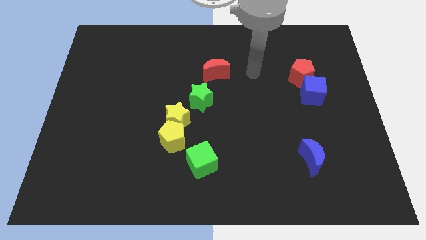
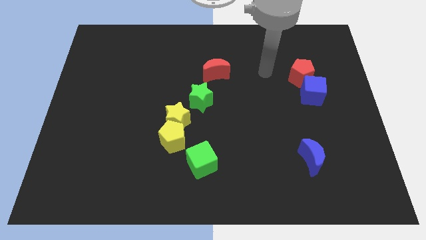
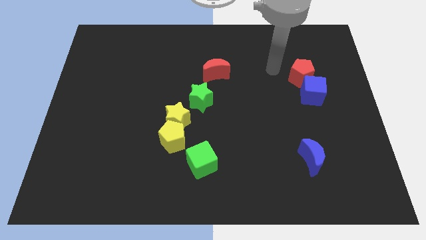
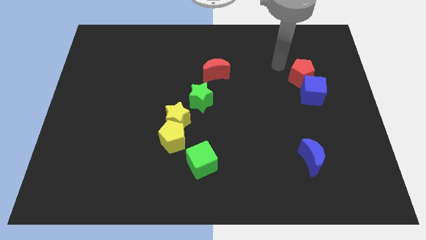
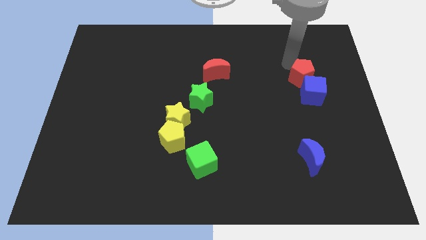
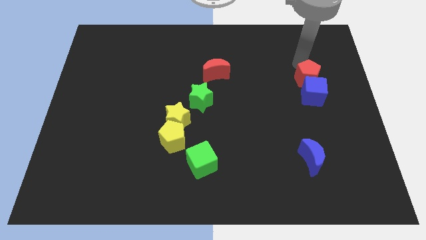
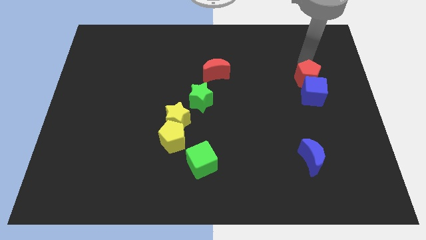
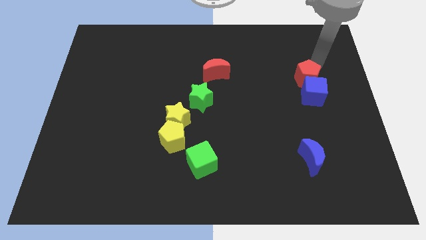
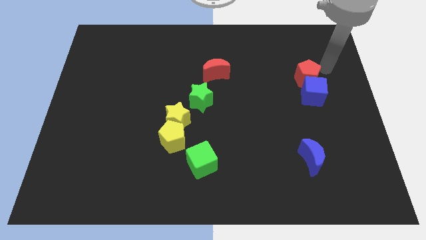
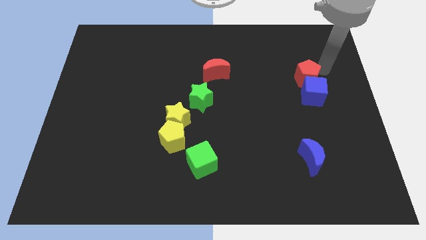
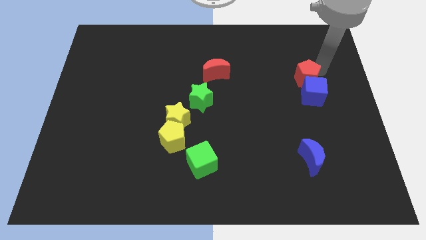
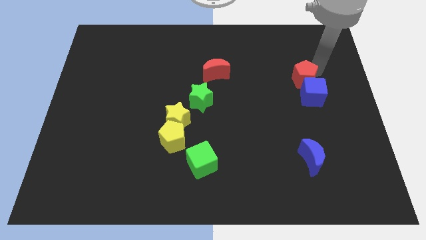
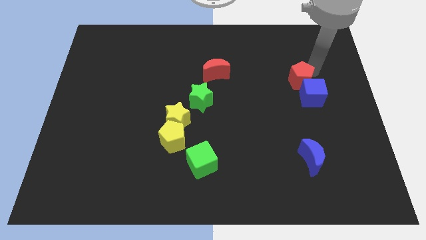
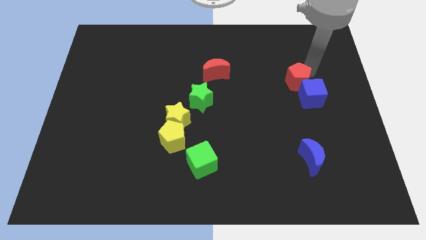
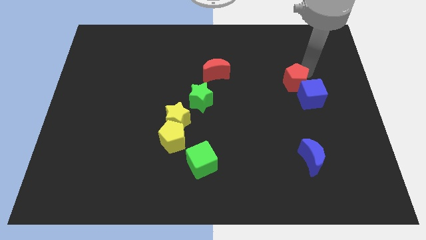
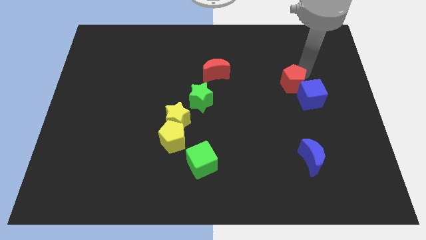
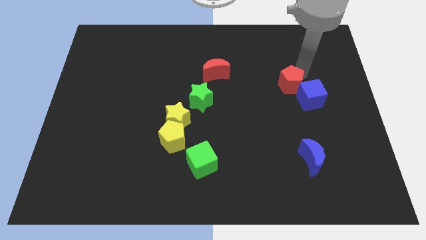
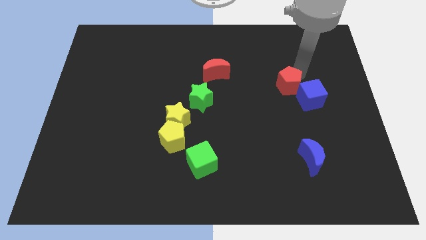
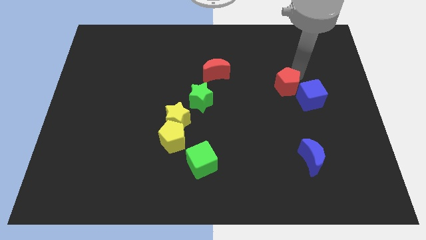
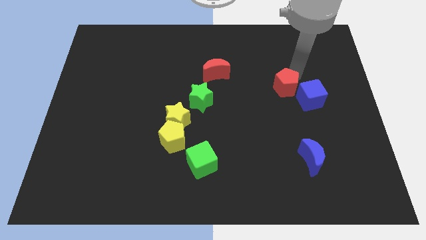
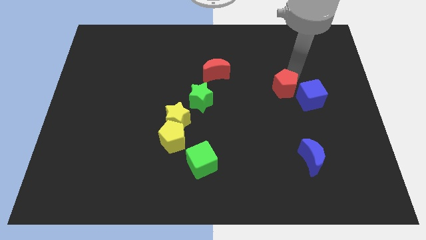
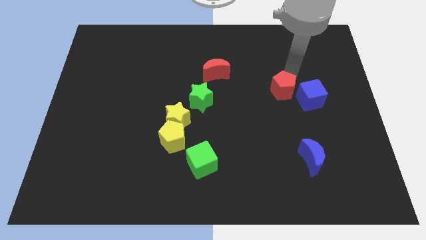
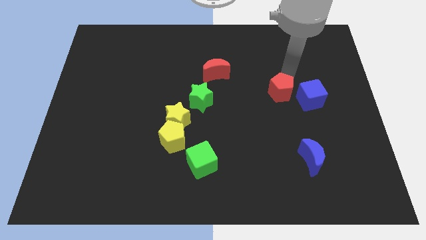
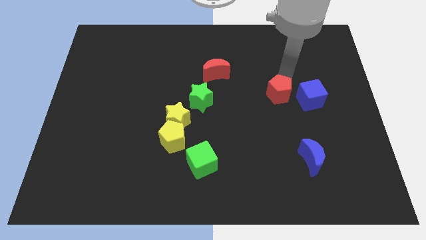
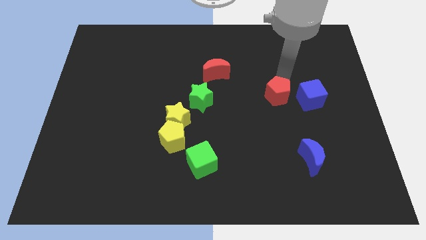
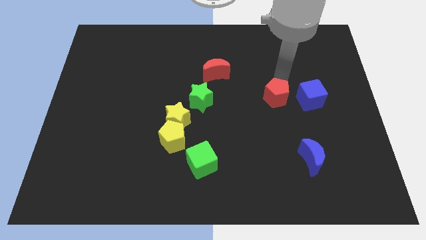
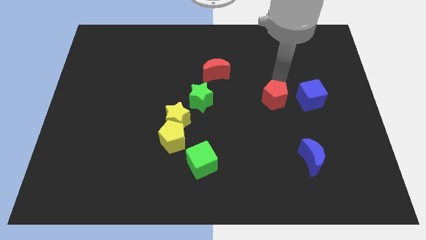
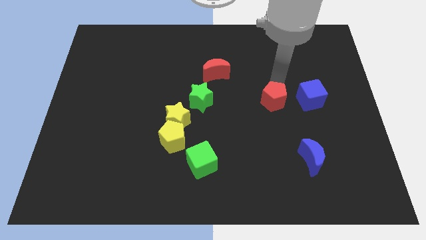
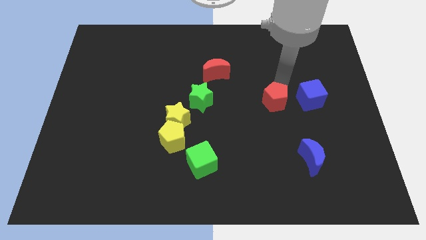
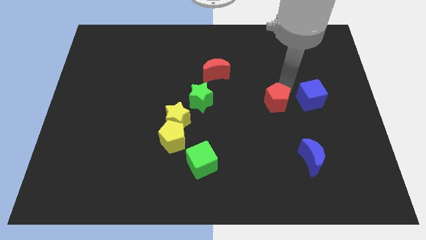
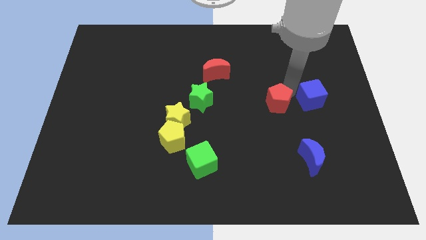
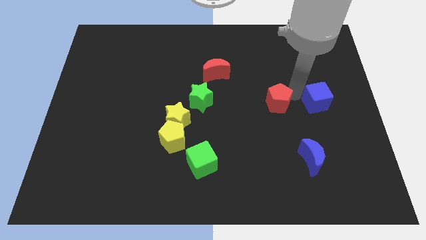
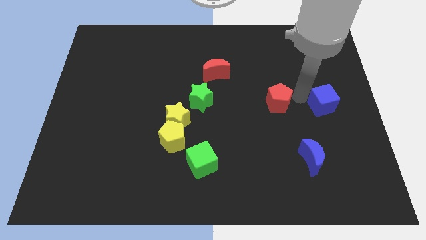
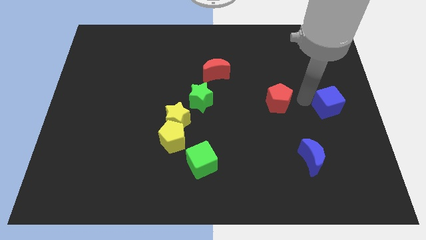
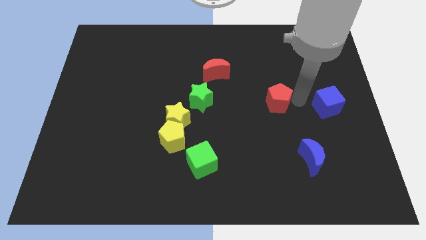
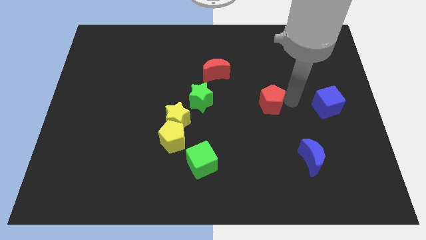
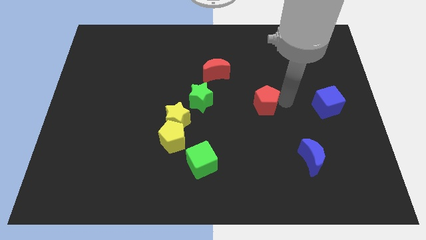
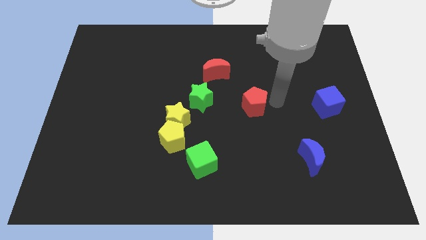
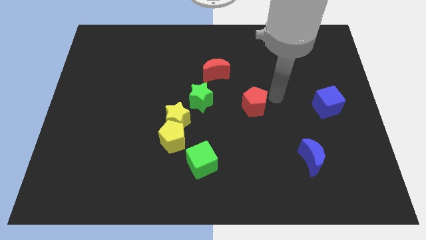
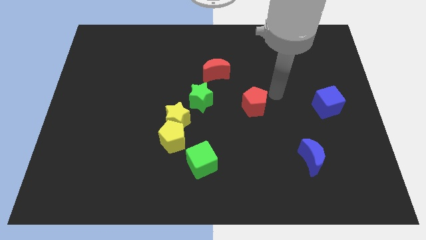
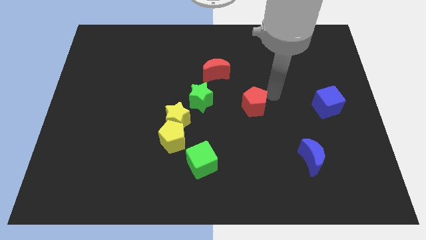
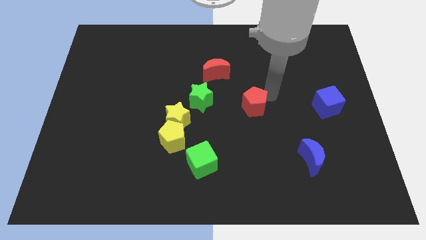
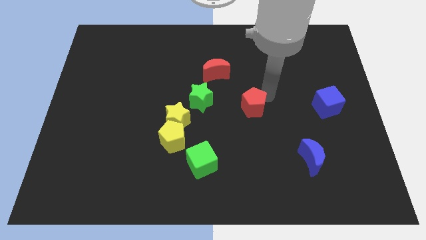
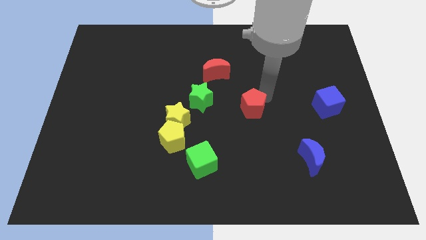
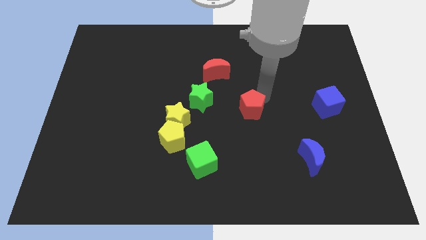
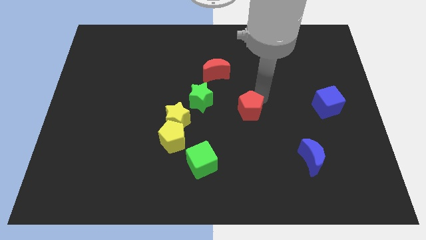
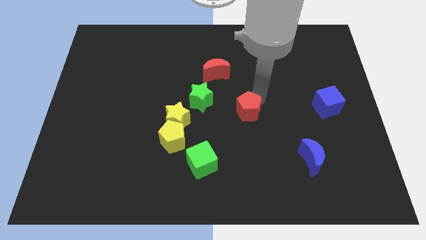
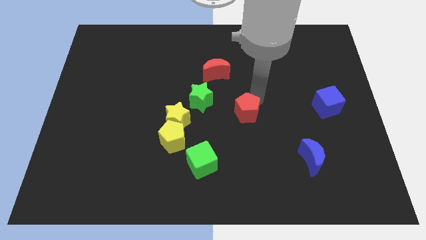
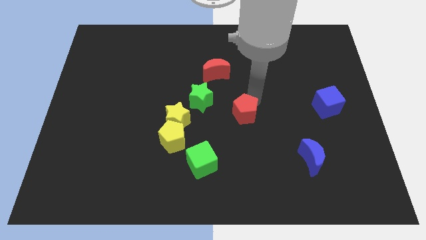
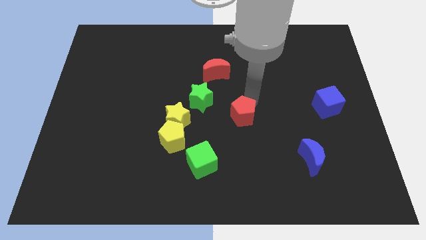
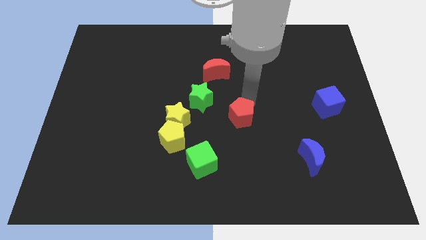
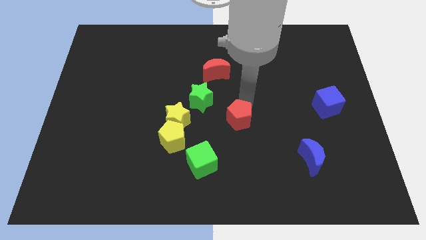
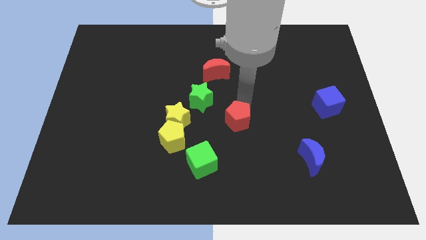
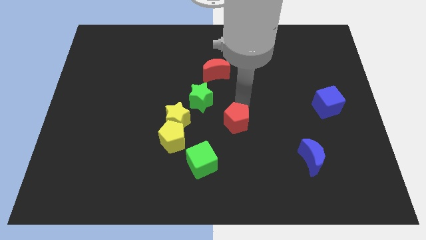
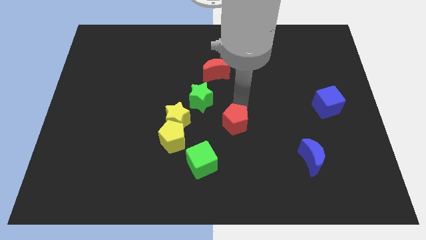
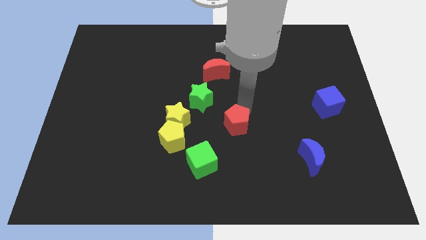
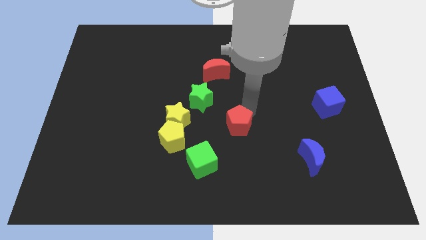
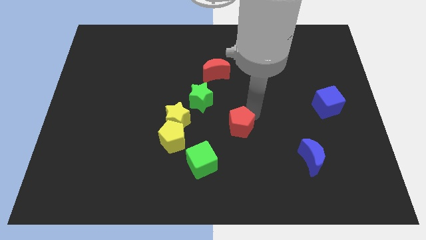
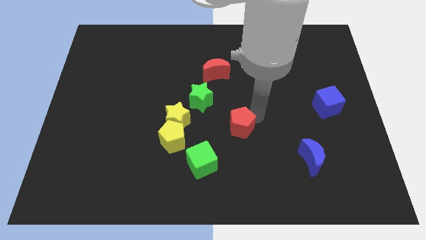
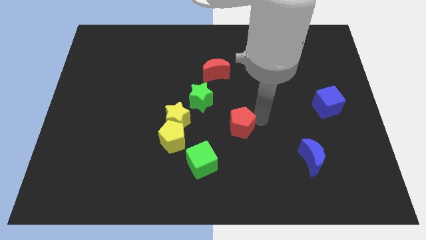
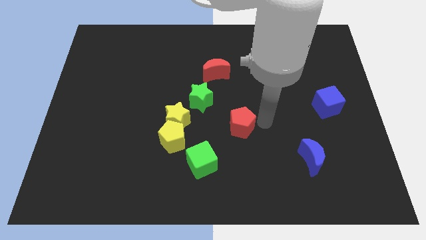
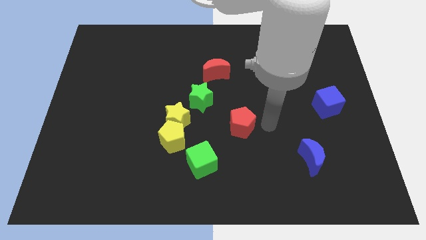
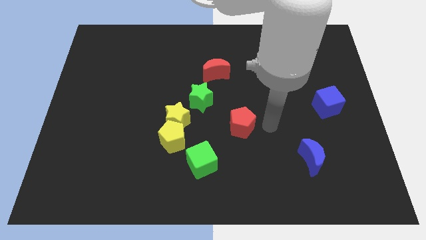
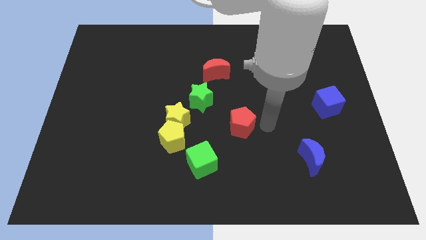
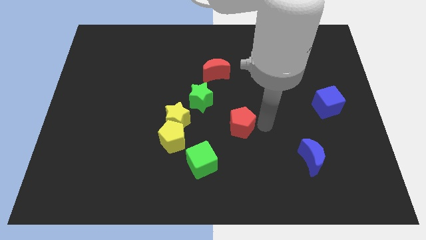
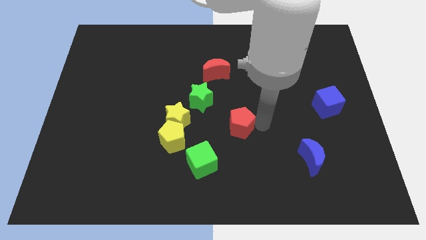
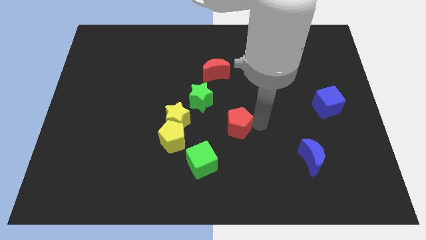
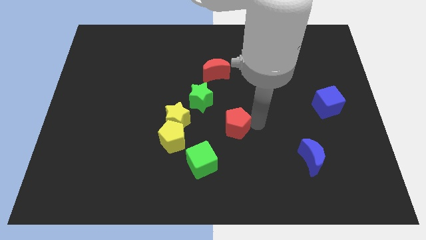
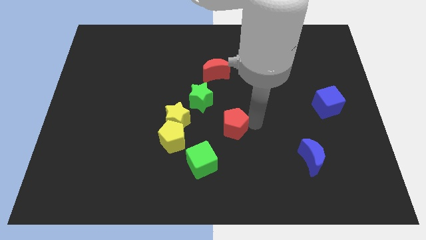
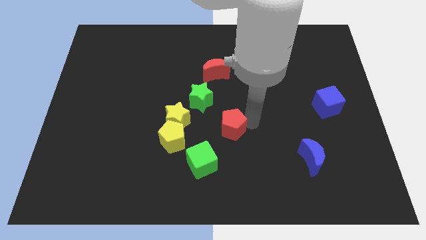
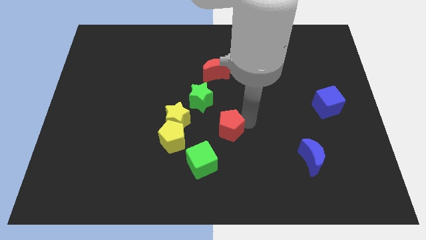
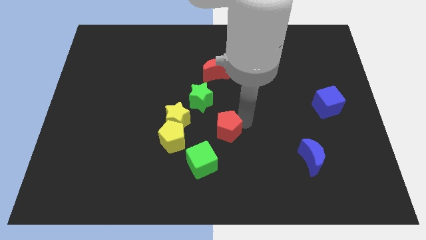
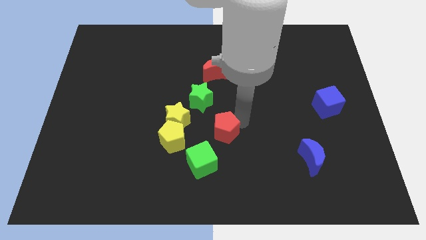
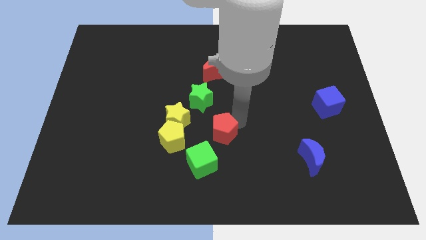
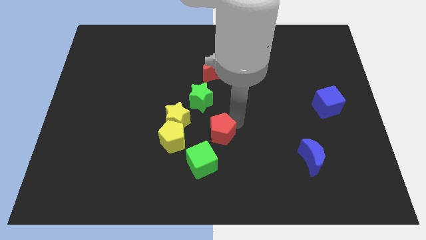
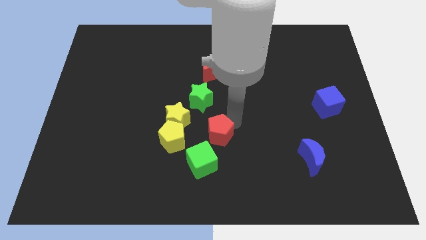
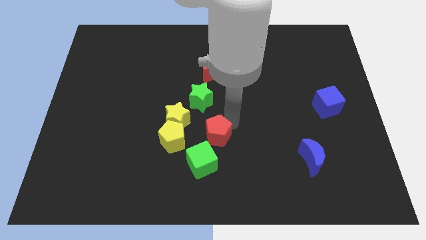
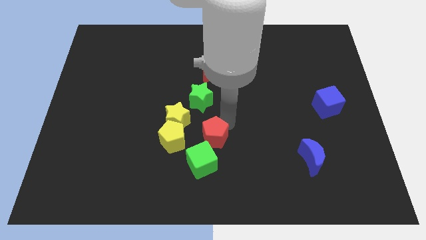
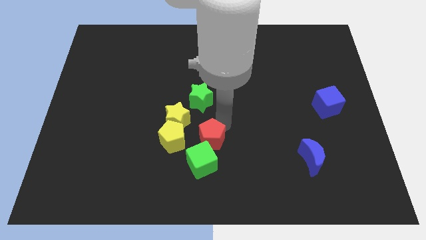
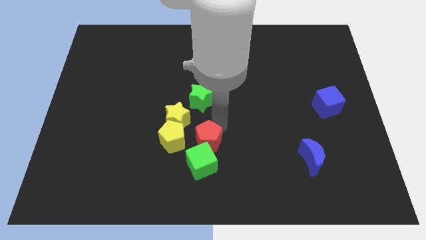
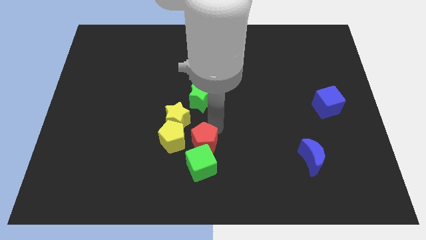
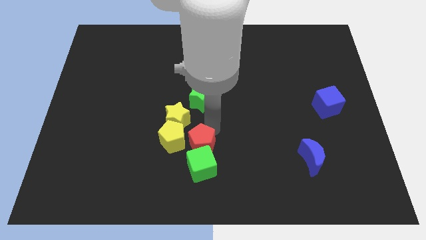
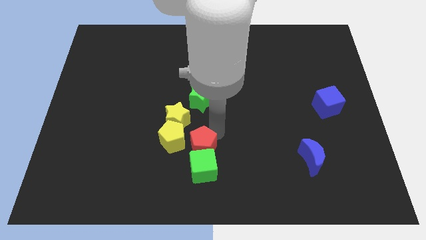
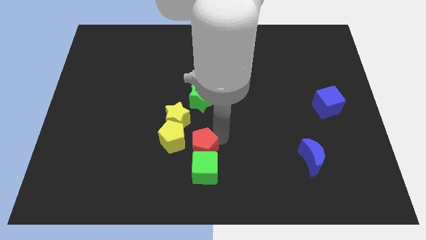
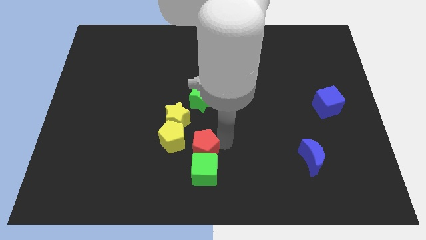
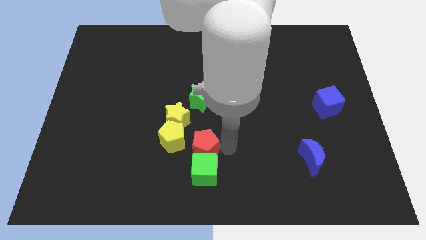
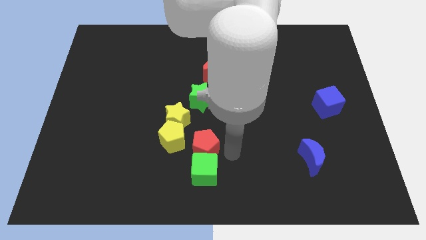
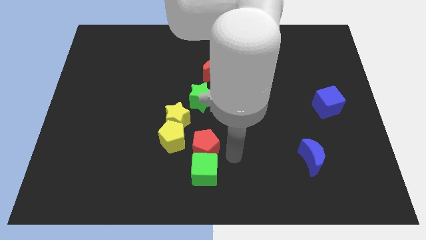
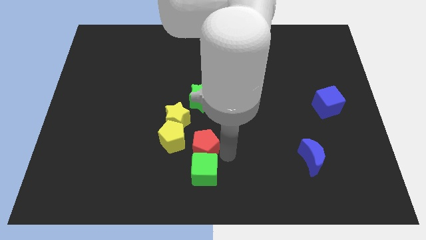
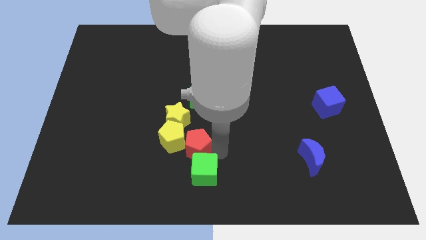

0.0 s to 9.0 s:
push the red pentagon next to the yellow pentagon
